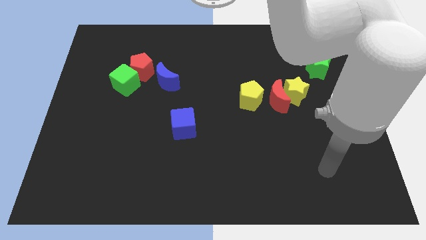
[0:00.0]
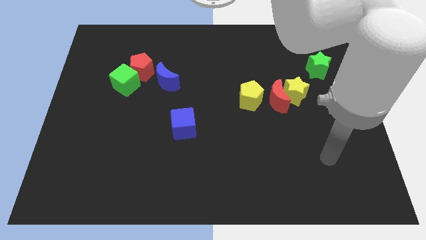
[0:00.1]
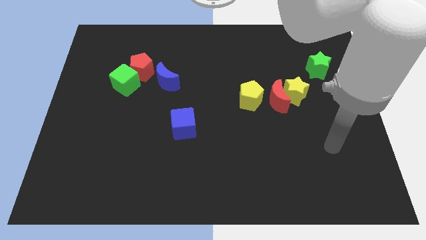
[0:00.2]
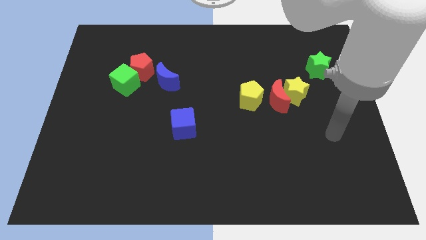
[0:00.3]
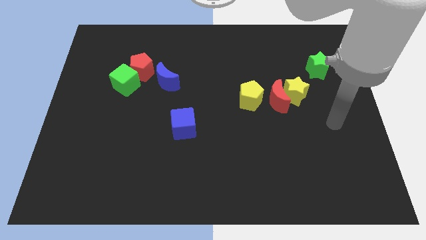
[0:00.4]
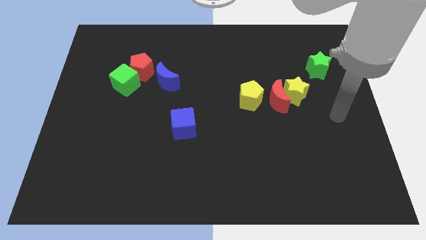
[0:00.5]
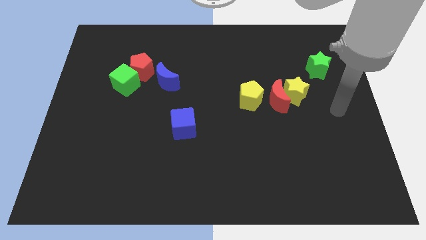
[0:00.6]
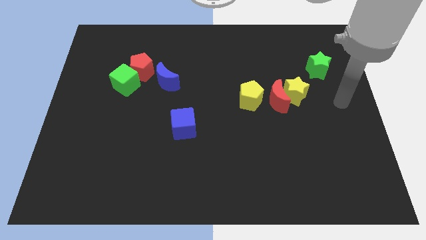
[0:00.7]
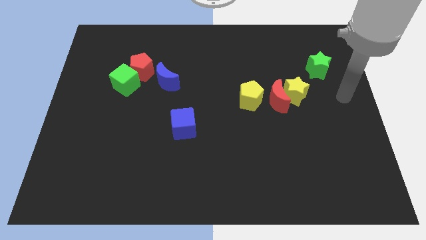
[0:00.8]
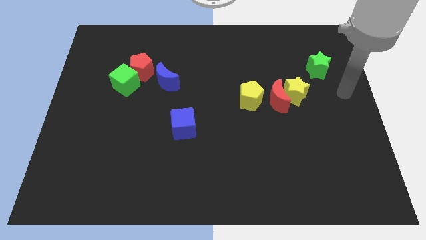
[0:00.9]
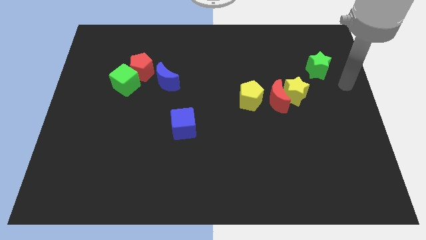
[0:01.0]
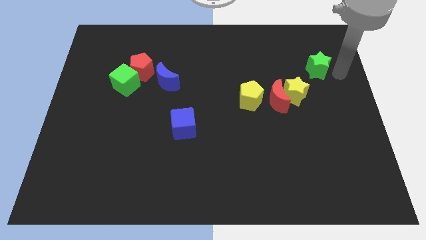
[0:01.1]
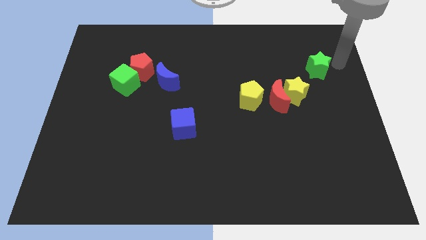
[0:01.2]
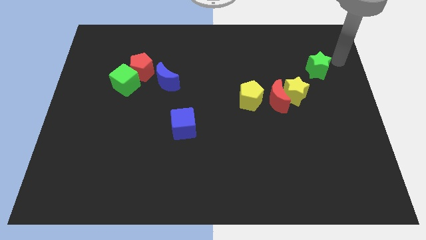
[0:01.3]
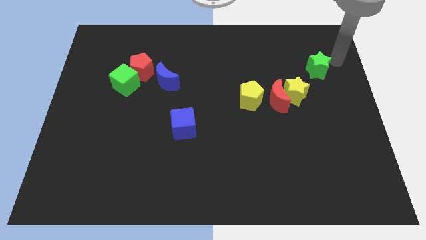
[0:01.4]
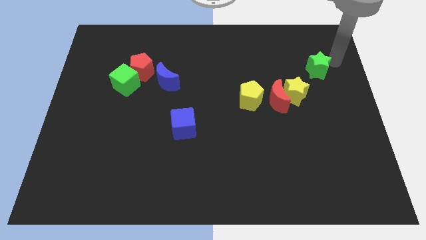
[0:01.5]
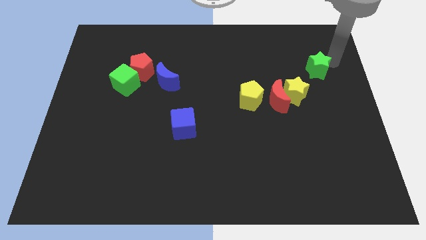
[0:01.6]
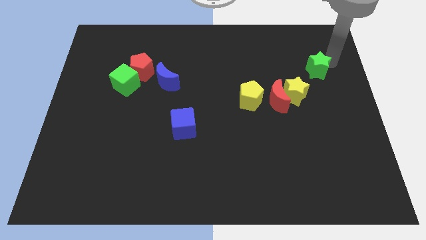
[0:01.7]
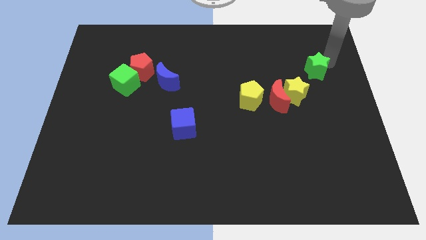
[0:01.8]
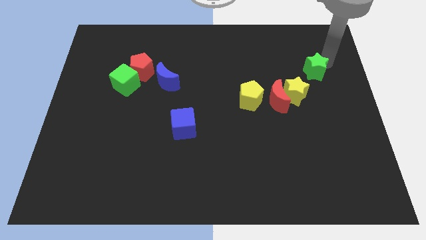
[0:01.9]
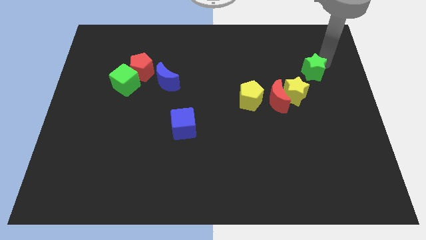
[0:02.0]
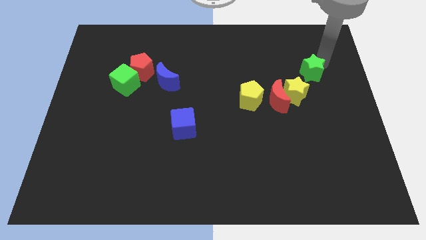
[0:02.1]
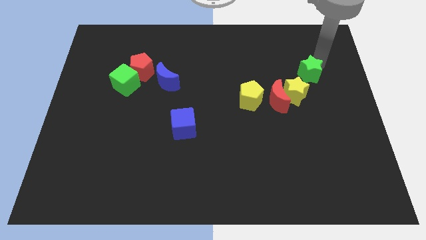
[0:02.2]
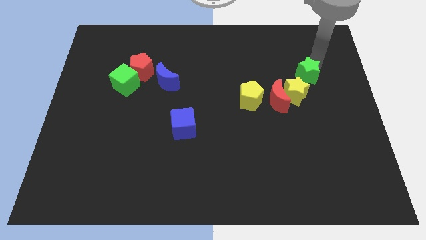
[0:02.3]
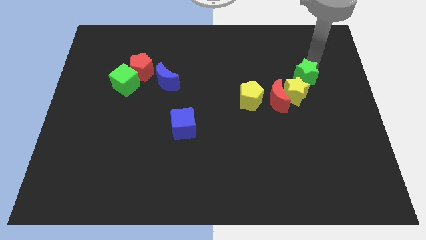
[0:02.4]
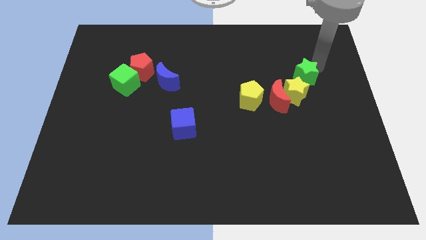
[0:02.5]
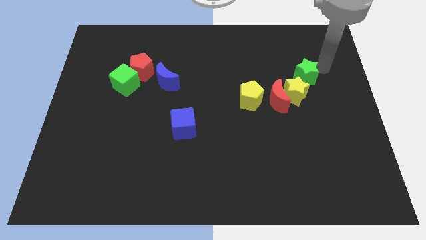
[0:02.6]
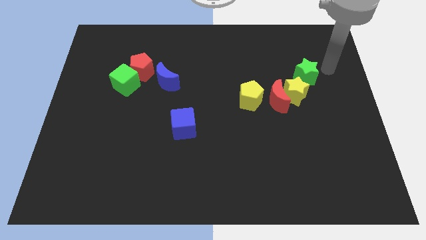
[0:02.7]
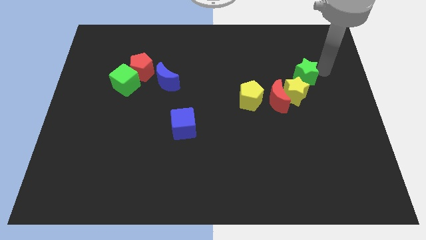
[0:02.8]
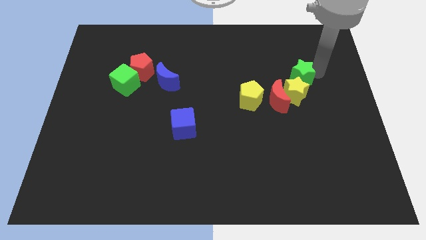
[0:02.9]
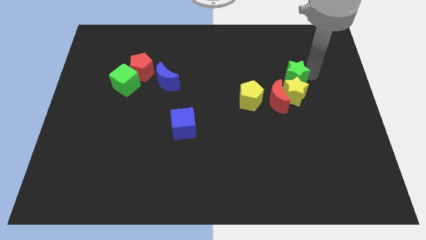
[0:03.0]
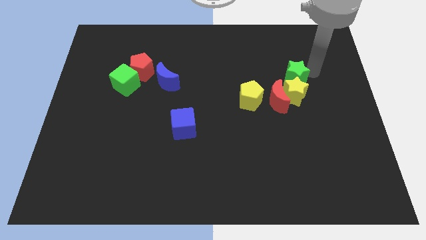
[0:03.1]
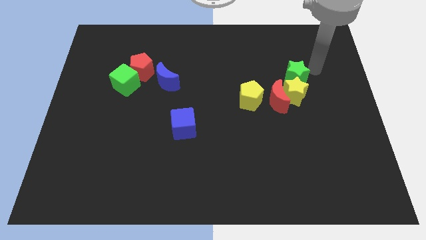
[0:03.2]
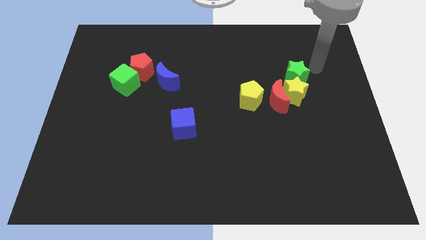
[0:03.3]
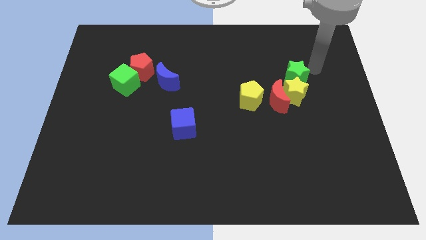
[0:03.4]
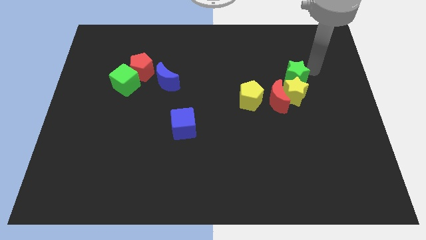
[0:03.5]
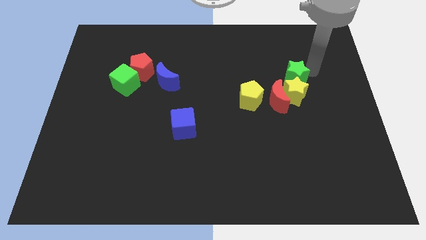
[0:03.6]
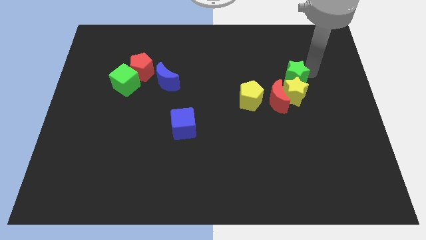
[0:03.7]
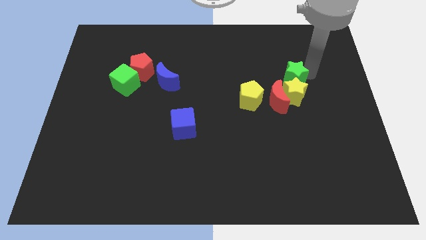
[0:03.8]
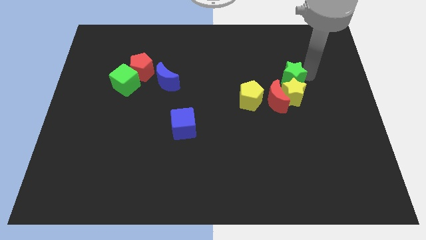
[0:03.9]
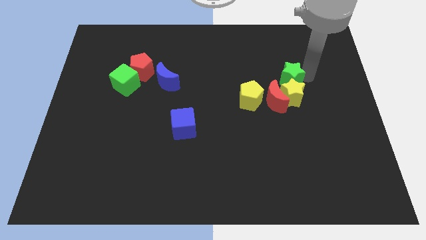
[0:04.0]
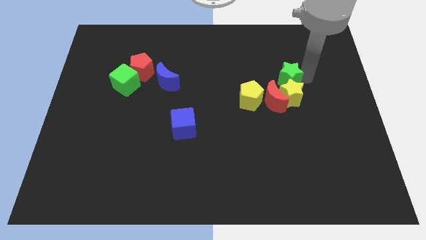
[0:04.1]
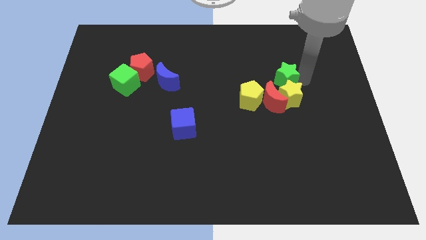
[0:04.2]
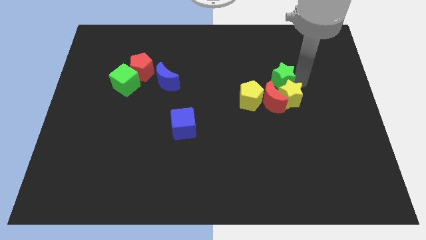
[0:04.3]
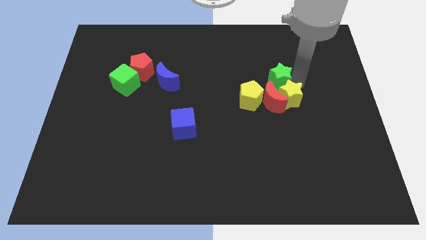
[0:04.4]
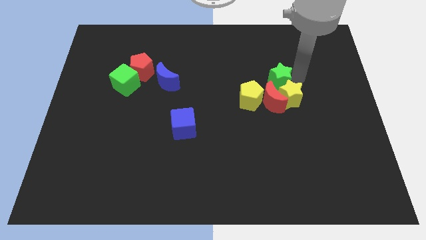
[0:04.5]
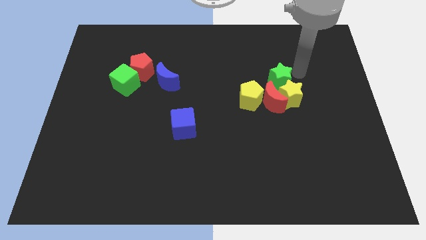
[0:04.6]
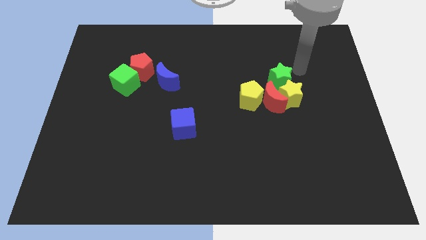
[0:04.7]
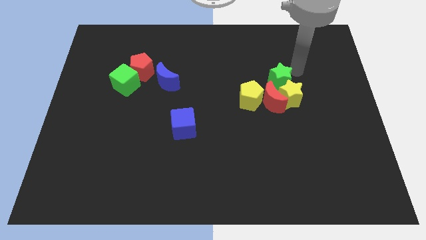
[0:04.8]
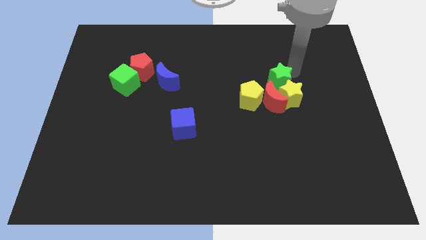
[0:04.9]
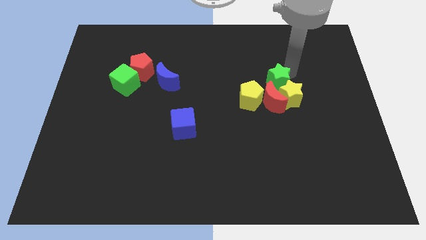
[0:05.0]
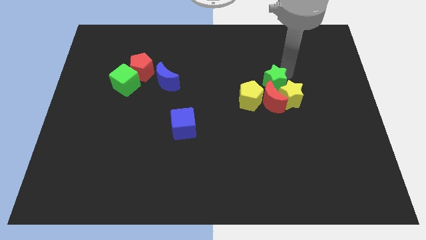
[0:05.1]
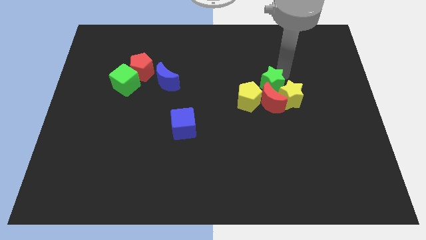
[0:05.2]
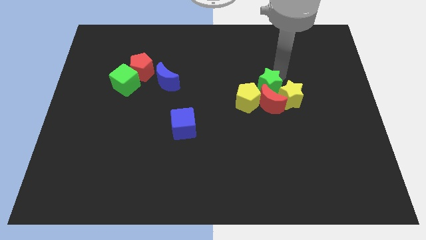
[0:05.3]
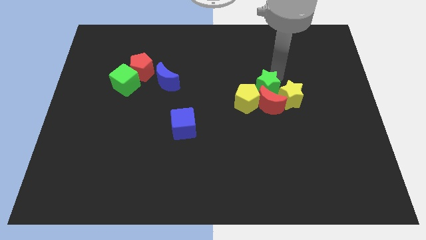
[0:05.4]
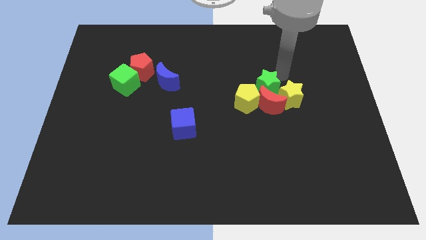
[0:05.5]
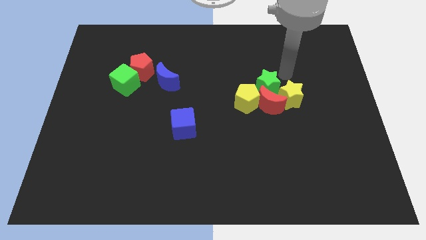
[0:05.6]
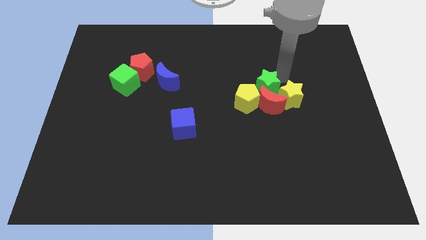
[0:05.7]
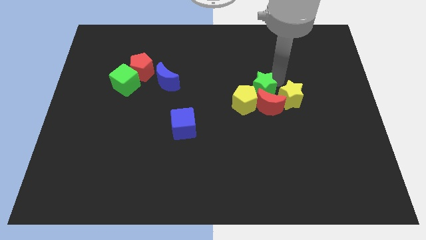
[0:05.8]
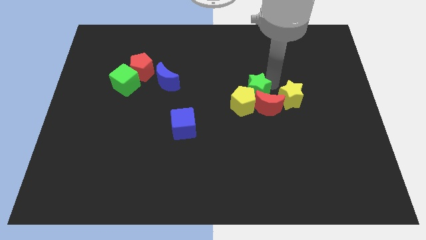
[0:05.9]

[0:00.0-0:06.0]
move the green star next to the yellow pentagon

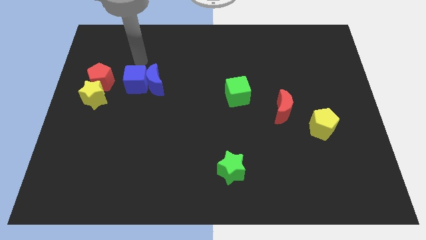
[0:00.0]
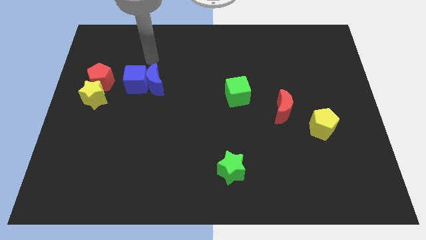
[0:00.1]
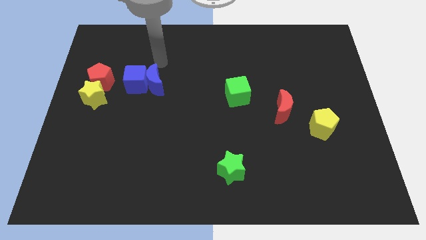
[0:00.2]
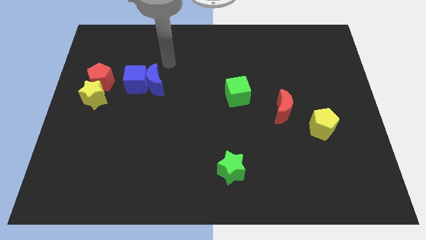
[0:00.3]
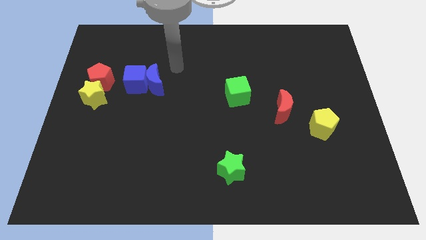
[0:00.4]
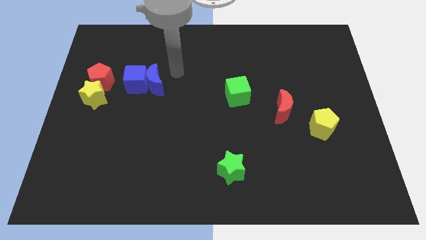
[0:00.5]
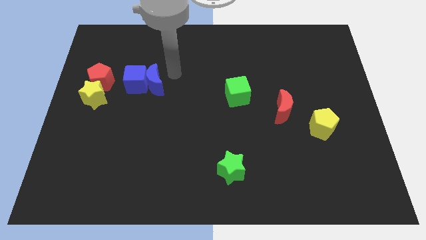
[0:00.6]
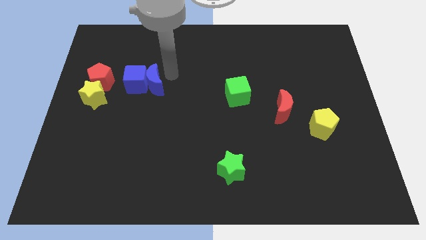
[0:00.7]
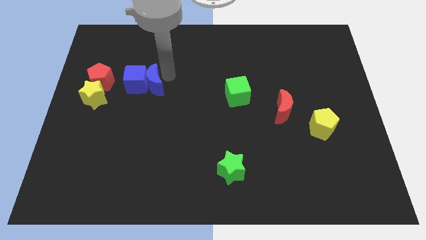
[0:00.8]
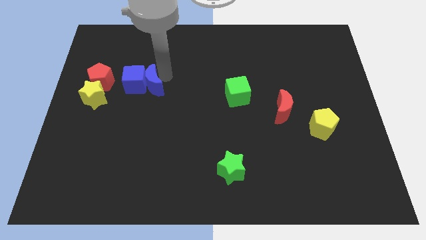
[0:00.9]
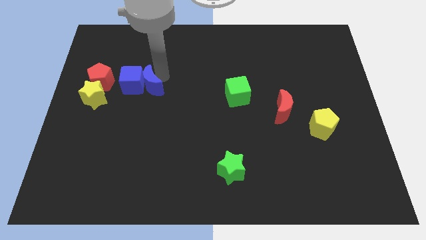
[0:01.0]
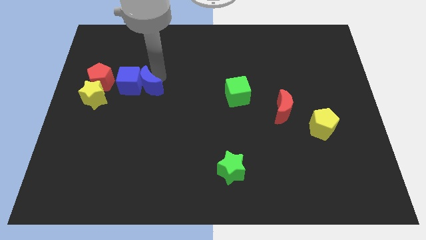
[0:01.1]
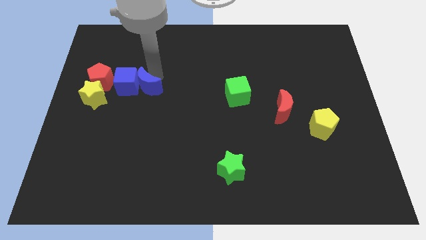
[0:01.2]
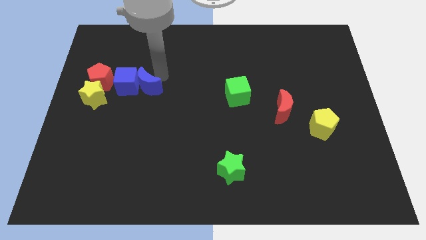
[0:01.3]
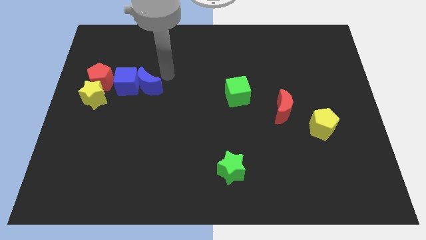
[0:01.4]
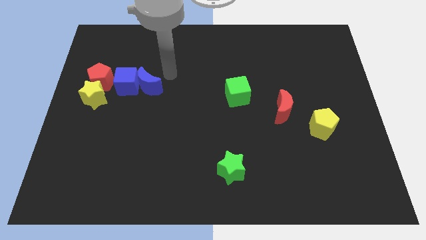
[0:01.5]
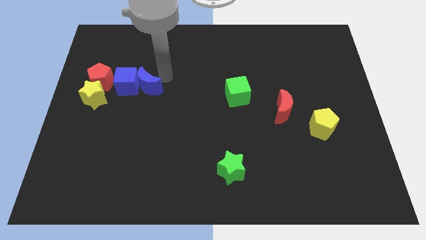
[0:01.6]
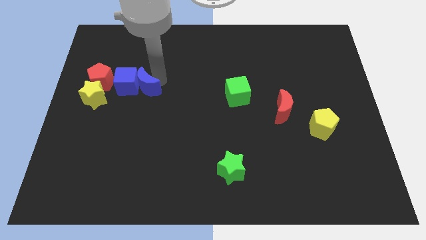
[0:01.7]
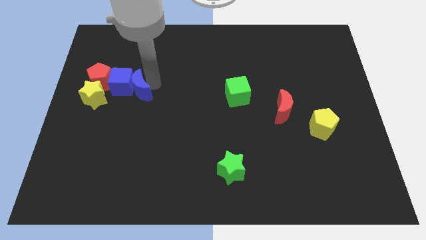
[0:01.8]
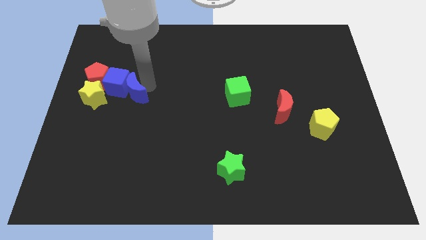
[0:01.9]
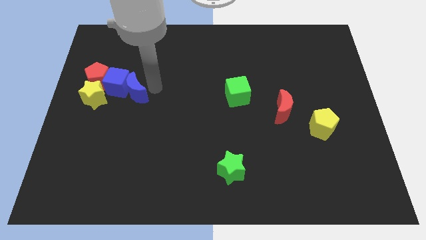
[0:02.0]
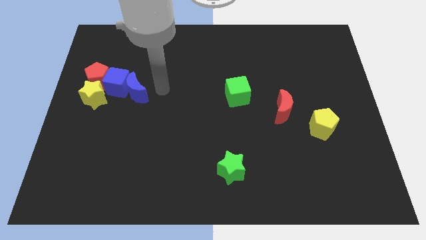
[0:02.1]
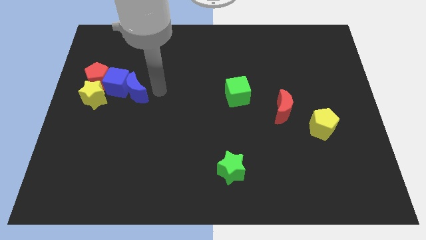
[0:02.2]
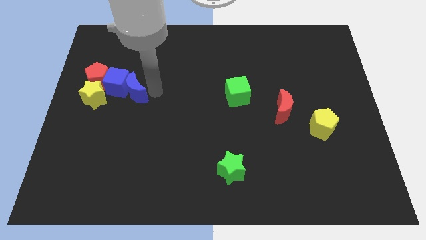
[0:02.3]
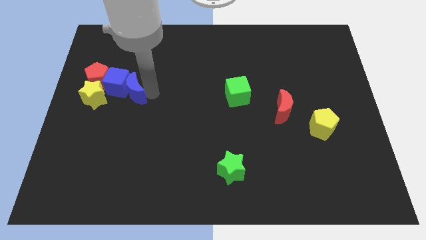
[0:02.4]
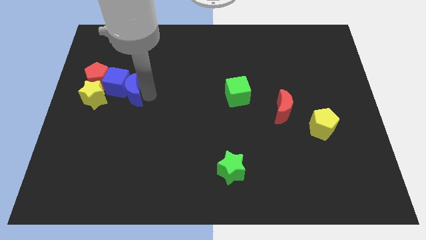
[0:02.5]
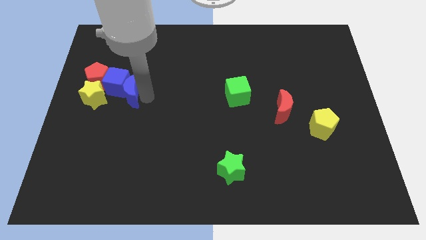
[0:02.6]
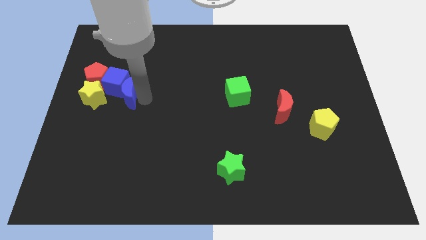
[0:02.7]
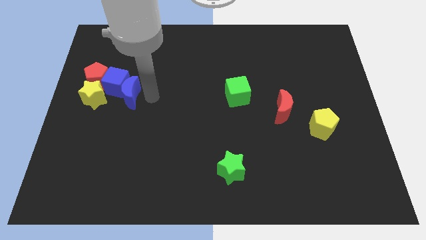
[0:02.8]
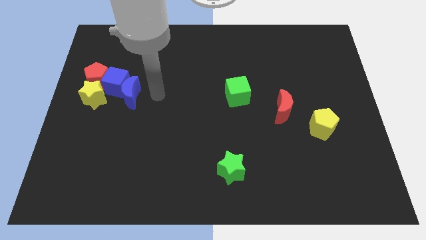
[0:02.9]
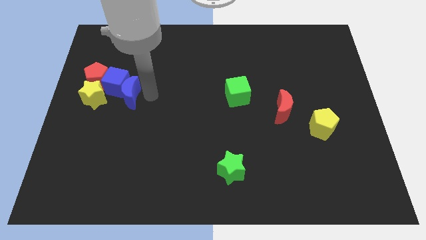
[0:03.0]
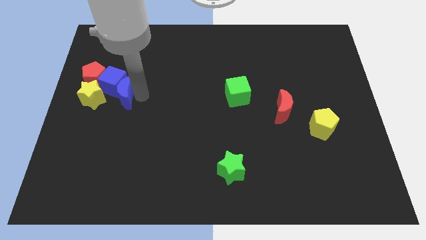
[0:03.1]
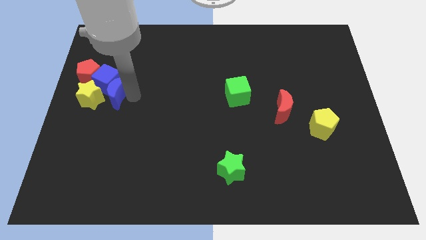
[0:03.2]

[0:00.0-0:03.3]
move the blue moon close to the yellow star
